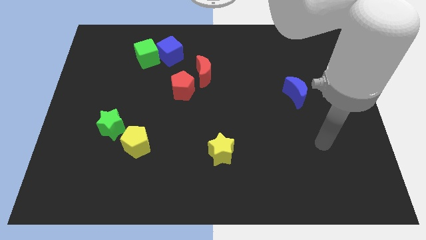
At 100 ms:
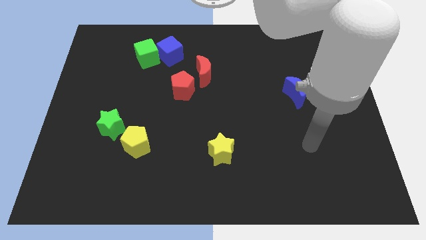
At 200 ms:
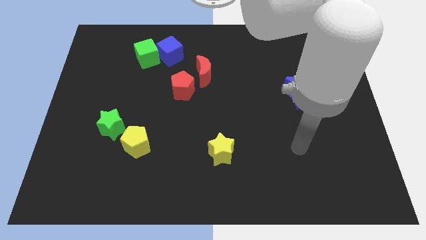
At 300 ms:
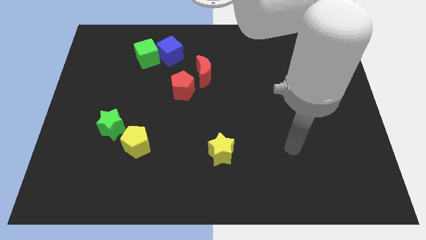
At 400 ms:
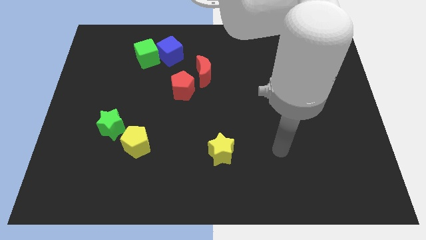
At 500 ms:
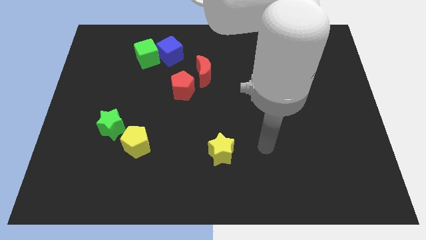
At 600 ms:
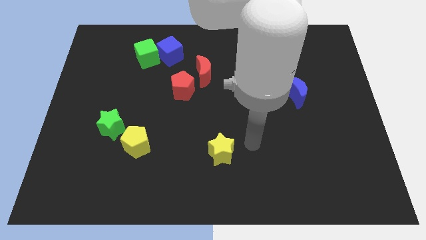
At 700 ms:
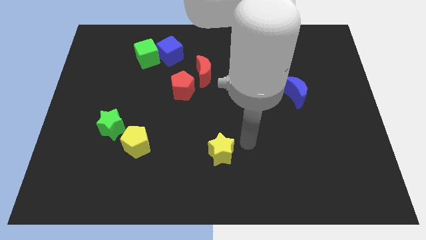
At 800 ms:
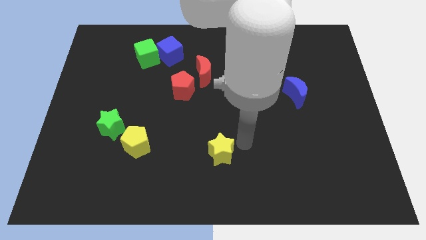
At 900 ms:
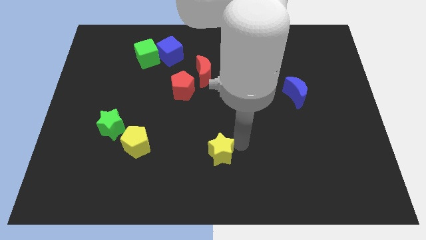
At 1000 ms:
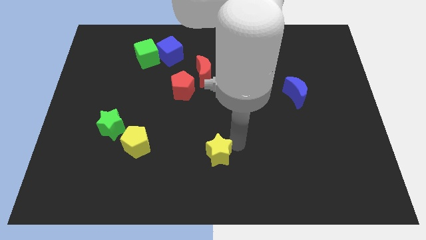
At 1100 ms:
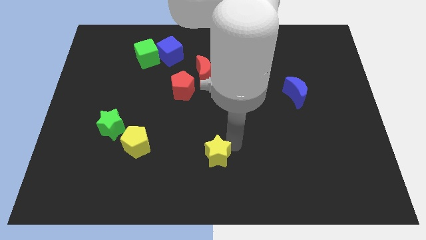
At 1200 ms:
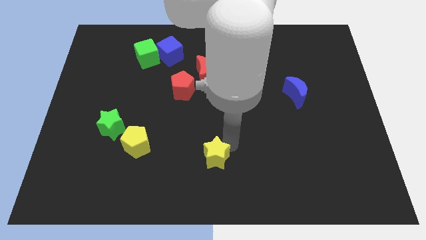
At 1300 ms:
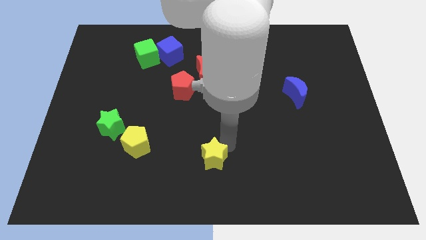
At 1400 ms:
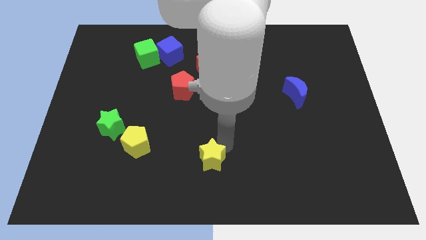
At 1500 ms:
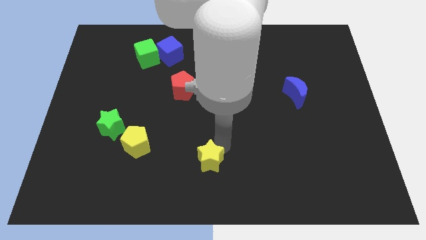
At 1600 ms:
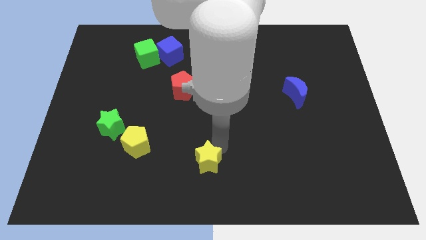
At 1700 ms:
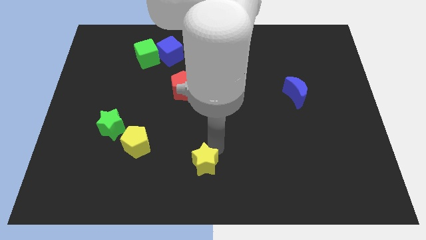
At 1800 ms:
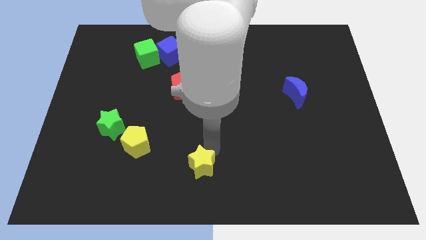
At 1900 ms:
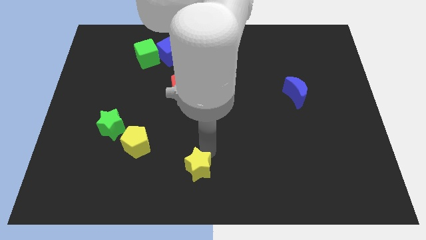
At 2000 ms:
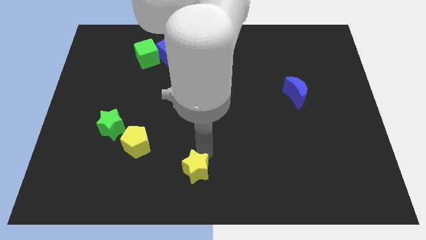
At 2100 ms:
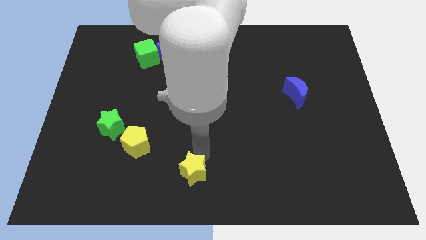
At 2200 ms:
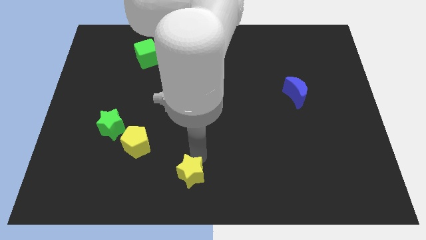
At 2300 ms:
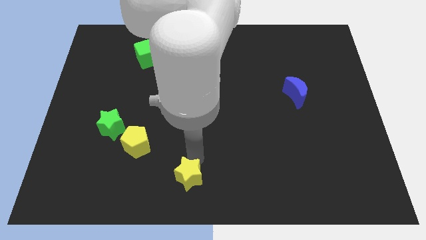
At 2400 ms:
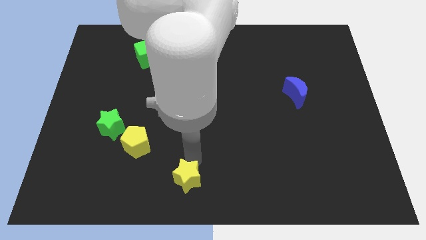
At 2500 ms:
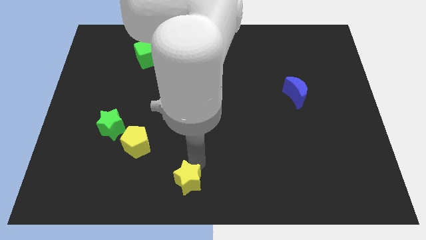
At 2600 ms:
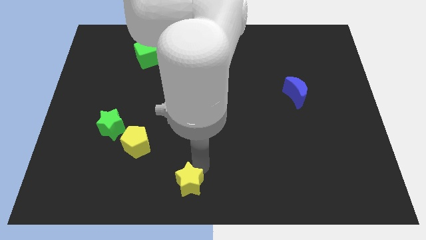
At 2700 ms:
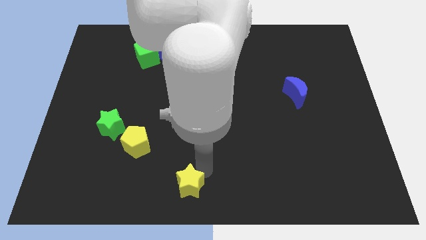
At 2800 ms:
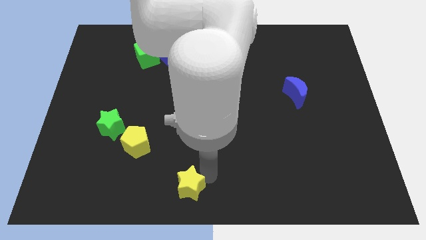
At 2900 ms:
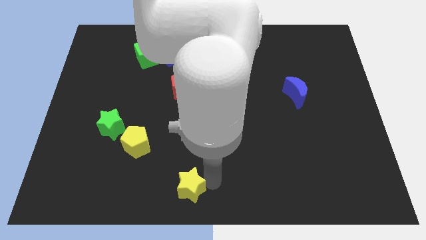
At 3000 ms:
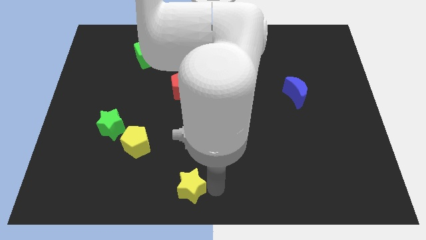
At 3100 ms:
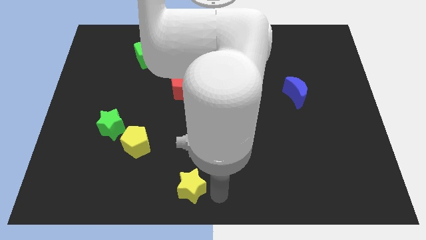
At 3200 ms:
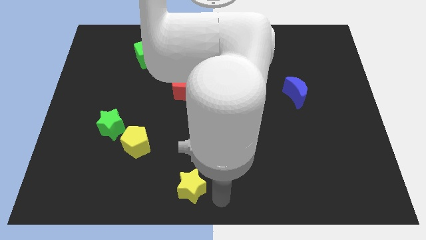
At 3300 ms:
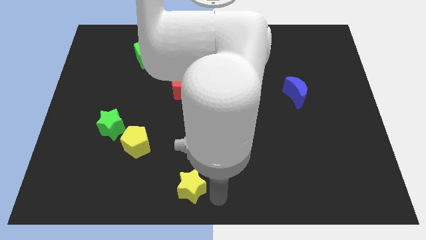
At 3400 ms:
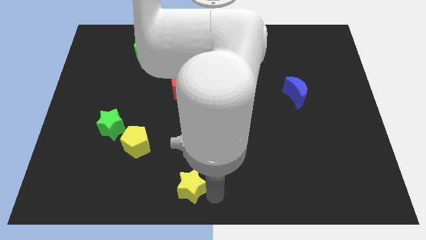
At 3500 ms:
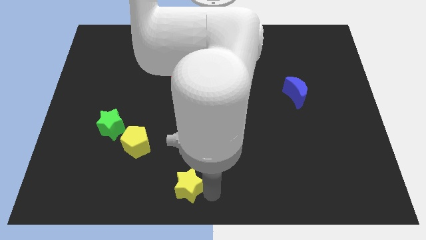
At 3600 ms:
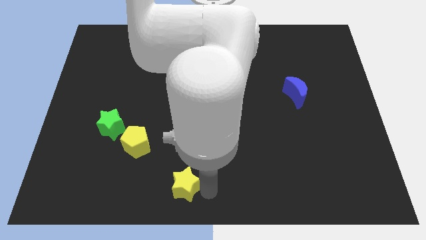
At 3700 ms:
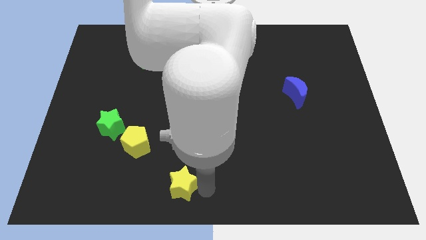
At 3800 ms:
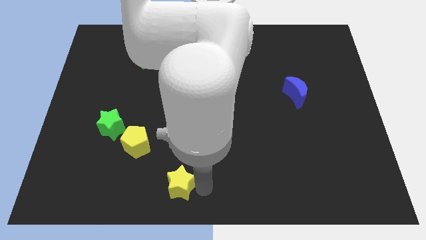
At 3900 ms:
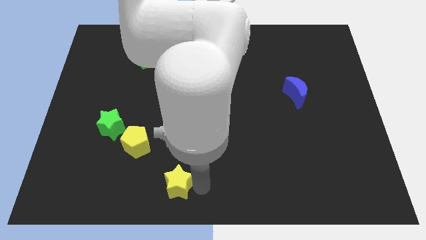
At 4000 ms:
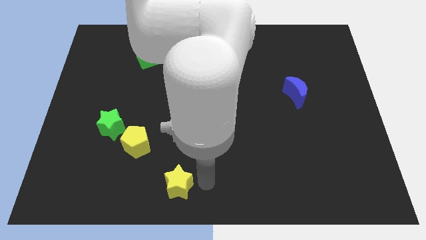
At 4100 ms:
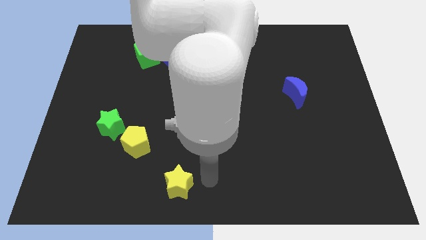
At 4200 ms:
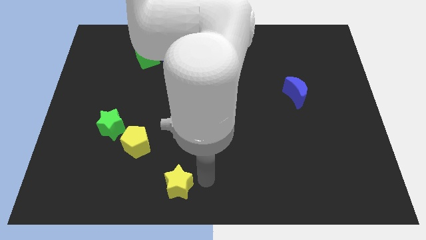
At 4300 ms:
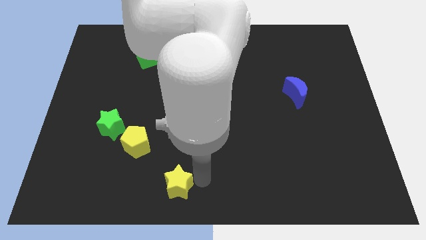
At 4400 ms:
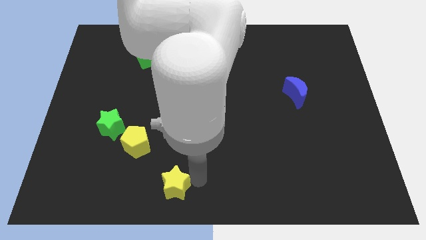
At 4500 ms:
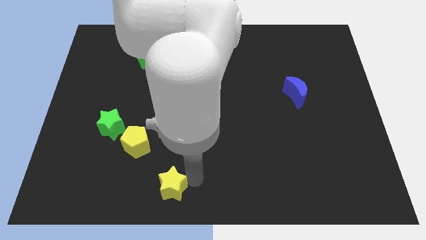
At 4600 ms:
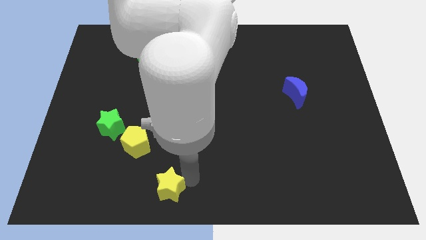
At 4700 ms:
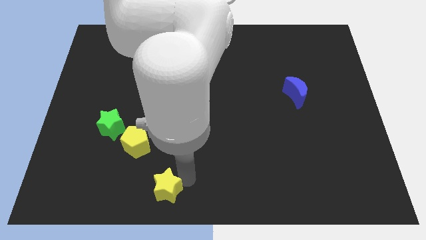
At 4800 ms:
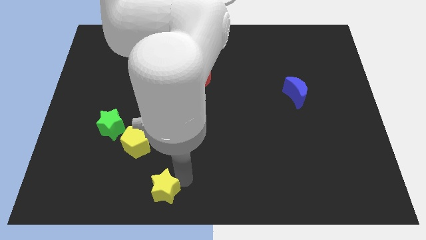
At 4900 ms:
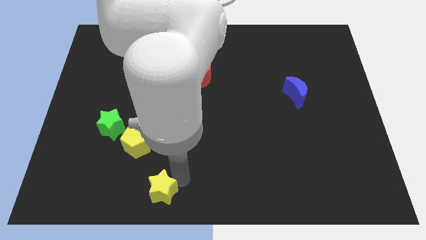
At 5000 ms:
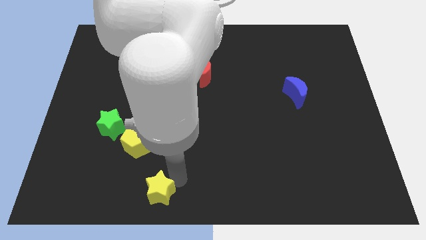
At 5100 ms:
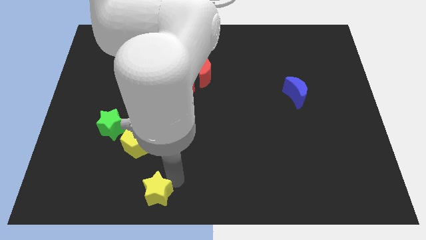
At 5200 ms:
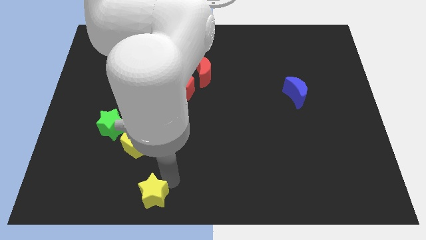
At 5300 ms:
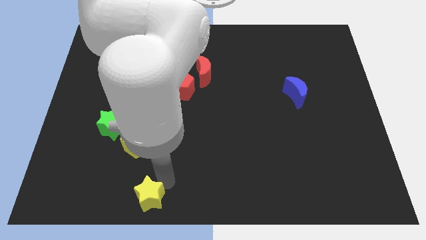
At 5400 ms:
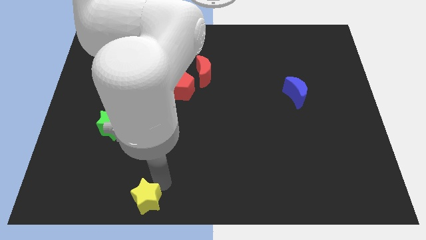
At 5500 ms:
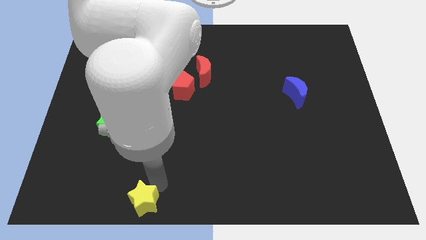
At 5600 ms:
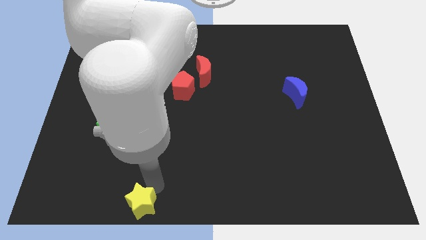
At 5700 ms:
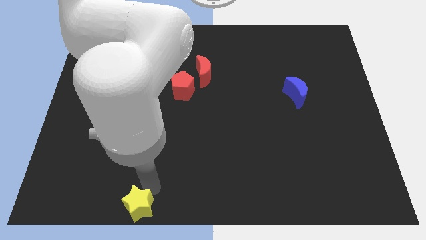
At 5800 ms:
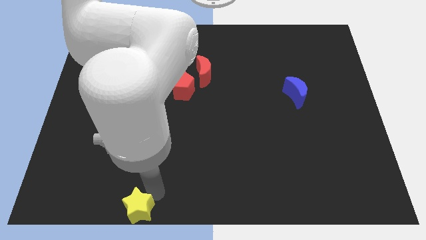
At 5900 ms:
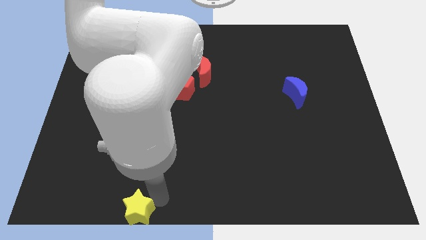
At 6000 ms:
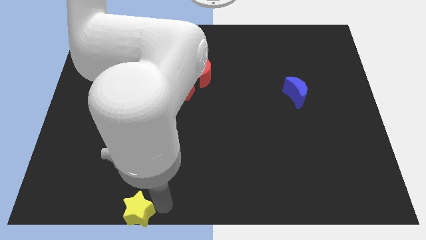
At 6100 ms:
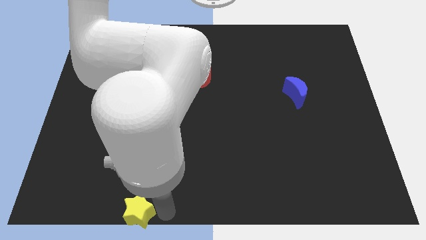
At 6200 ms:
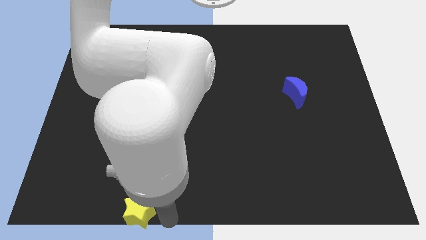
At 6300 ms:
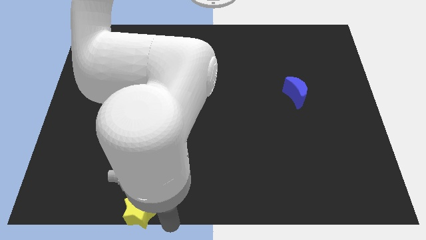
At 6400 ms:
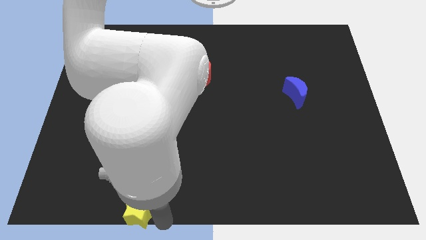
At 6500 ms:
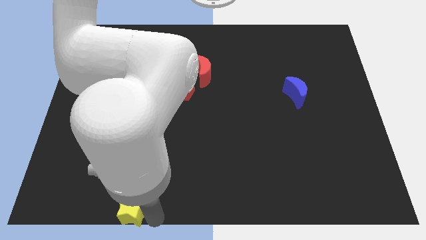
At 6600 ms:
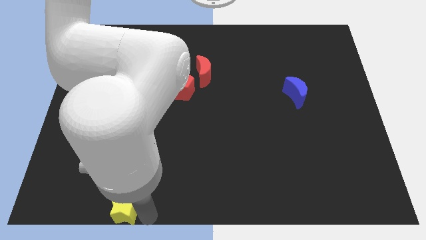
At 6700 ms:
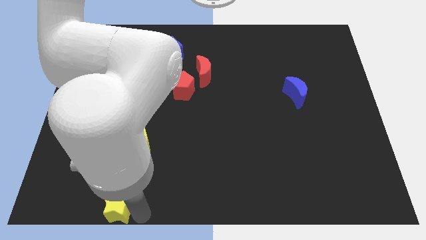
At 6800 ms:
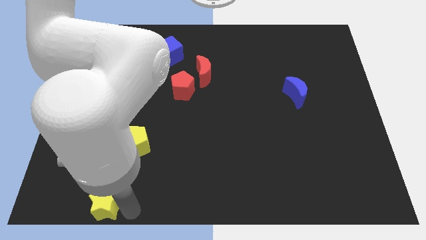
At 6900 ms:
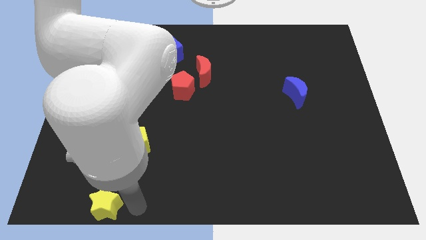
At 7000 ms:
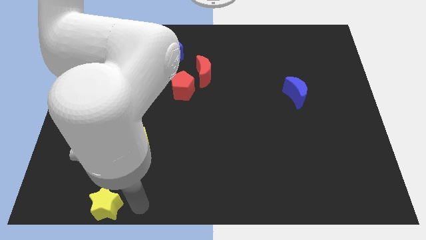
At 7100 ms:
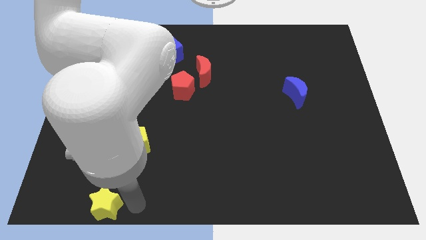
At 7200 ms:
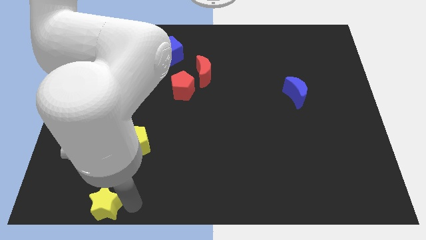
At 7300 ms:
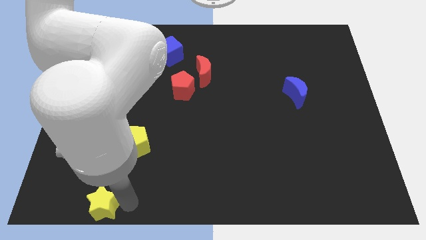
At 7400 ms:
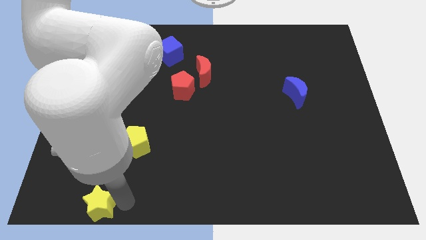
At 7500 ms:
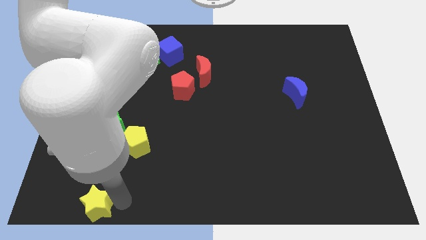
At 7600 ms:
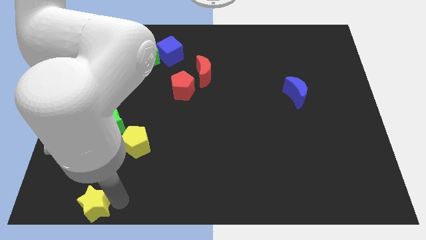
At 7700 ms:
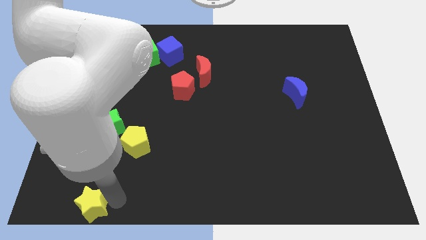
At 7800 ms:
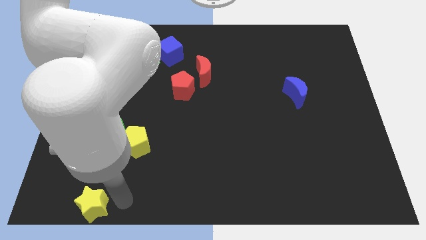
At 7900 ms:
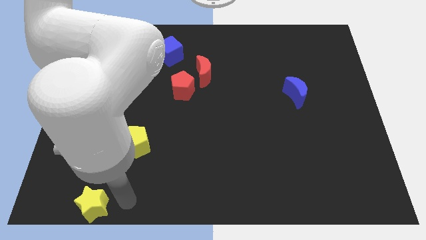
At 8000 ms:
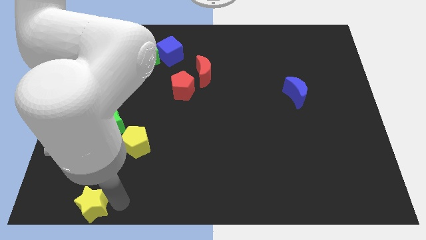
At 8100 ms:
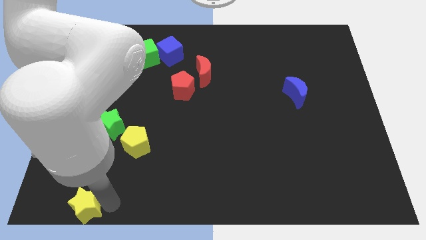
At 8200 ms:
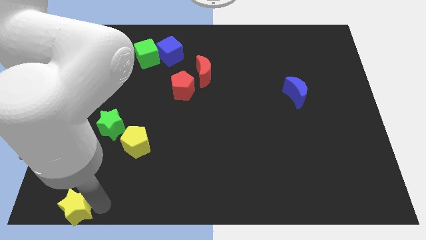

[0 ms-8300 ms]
move the yellow star to the bottom left of the board

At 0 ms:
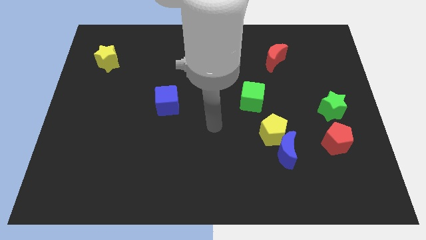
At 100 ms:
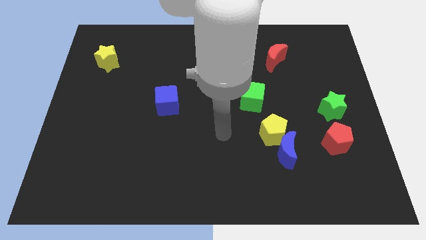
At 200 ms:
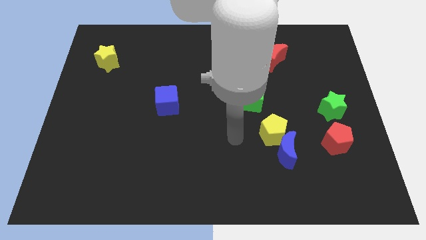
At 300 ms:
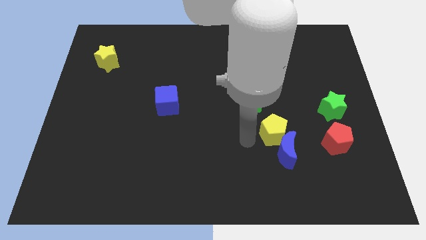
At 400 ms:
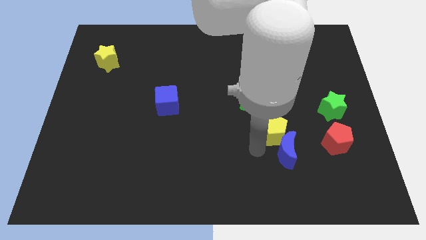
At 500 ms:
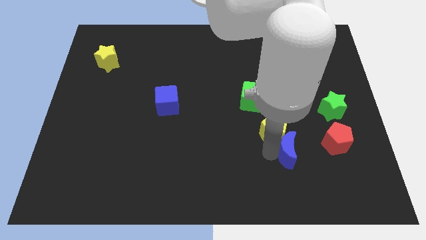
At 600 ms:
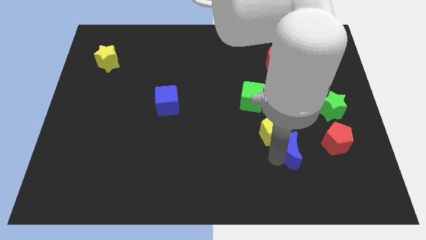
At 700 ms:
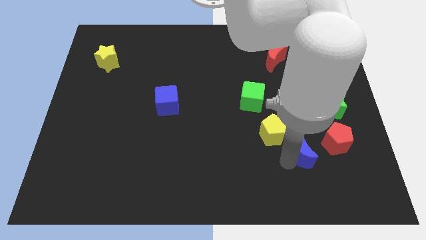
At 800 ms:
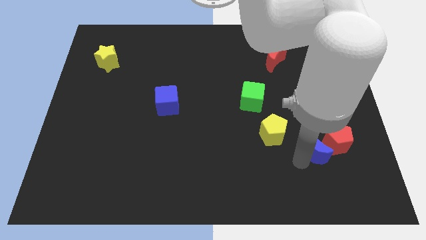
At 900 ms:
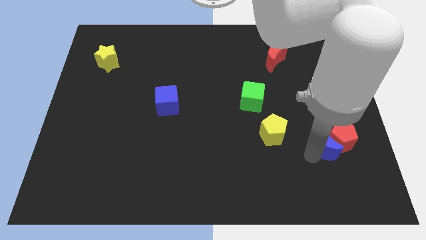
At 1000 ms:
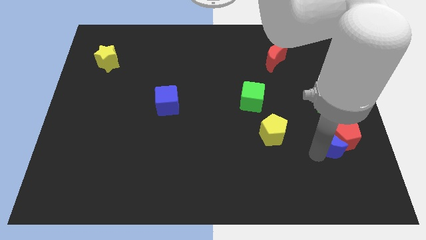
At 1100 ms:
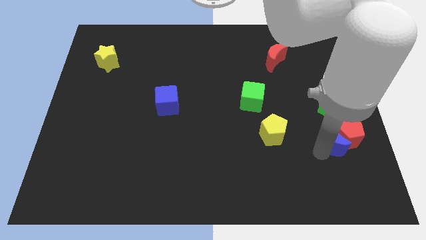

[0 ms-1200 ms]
push the red pentagon to the center right
